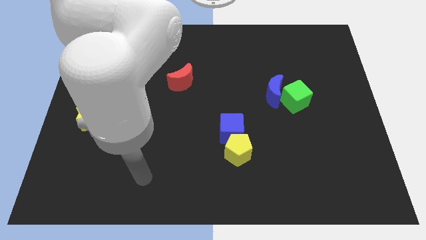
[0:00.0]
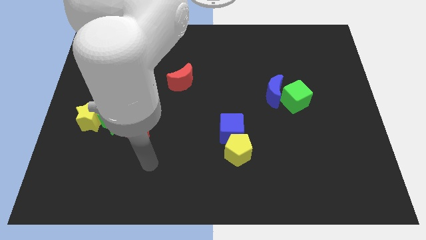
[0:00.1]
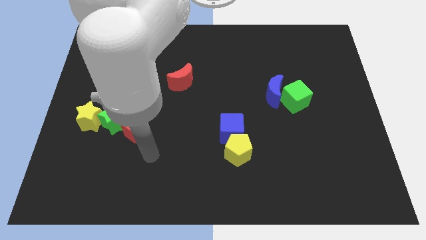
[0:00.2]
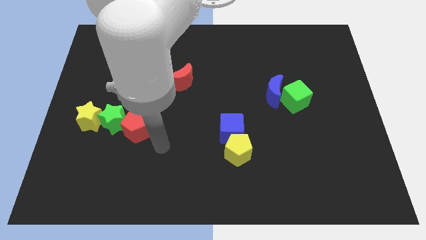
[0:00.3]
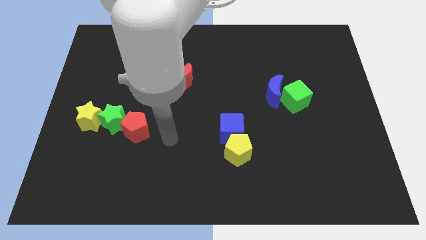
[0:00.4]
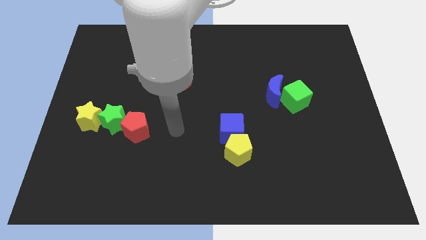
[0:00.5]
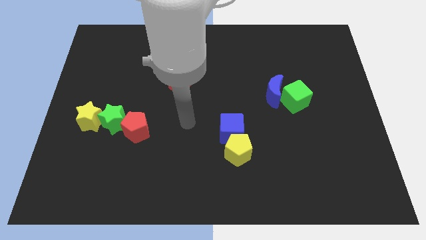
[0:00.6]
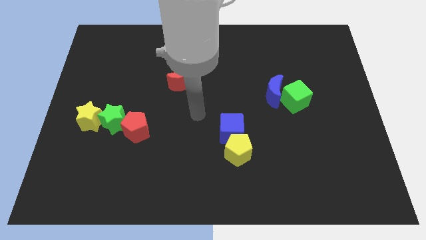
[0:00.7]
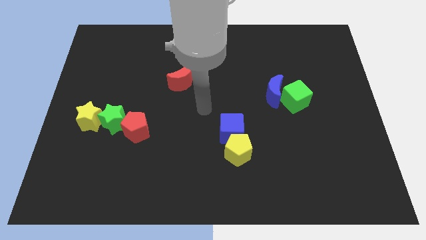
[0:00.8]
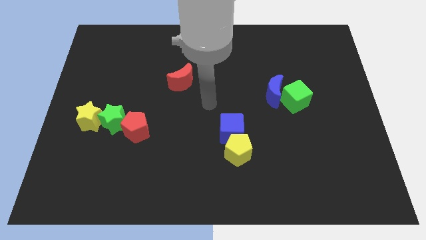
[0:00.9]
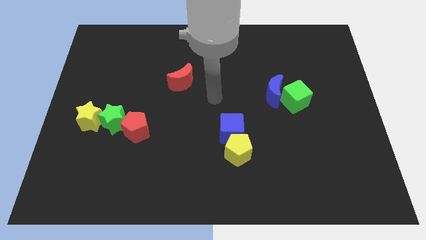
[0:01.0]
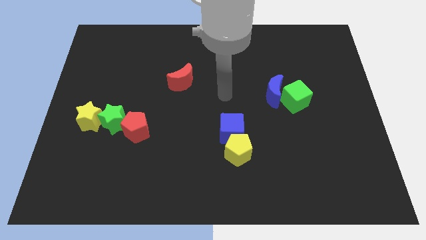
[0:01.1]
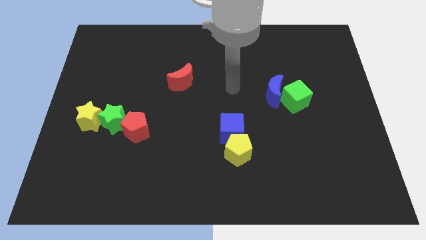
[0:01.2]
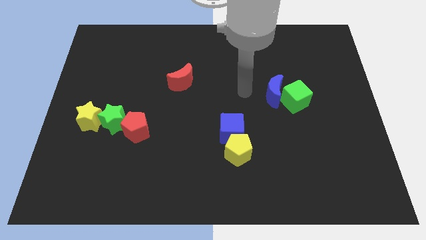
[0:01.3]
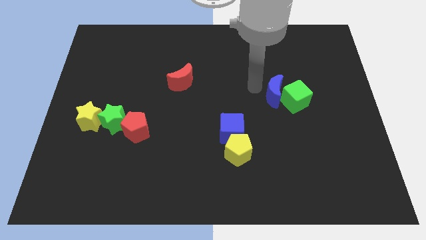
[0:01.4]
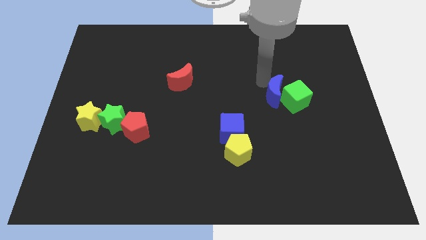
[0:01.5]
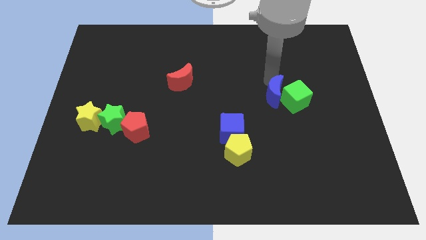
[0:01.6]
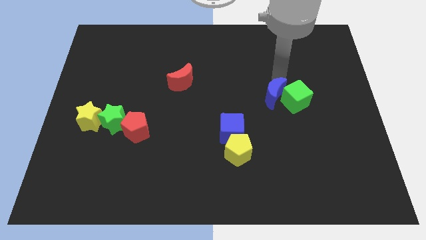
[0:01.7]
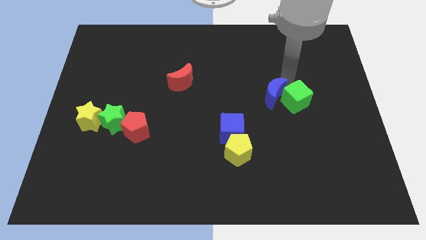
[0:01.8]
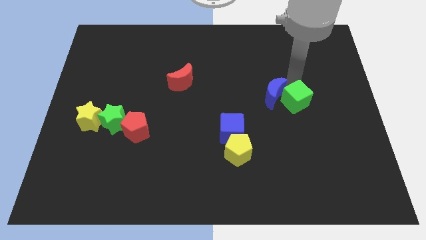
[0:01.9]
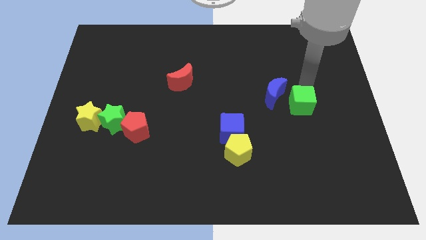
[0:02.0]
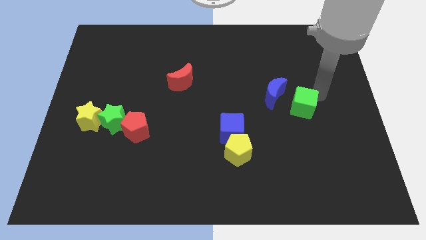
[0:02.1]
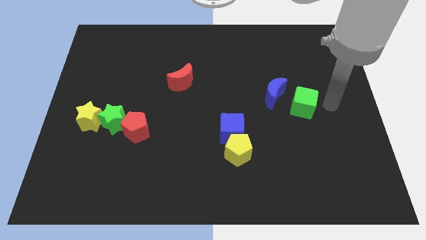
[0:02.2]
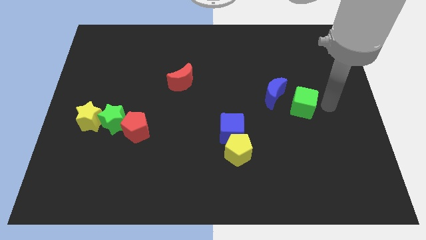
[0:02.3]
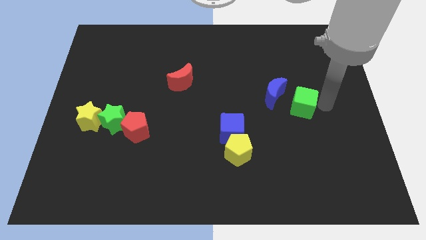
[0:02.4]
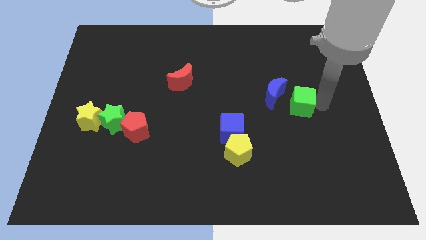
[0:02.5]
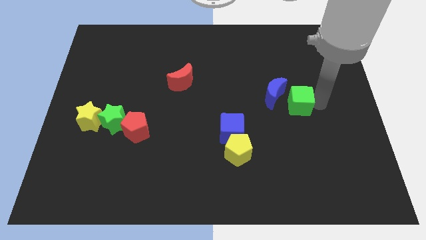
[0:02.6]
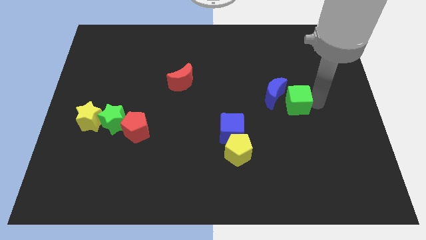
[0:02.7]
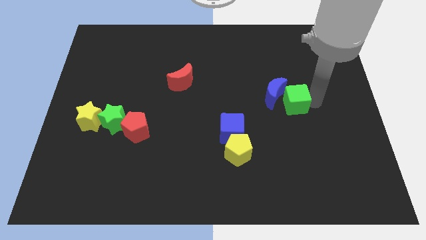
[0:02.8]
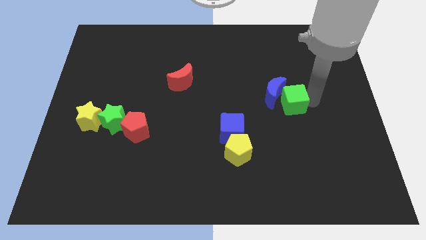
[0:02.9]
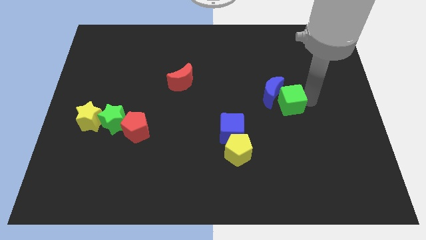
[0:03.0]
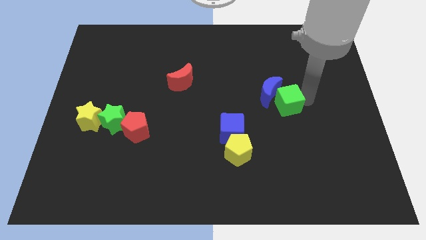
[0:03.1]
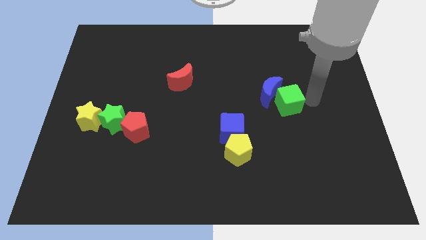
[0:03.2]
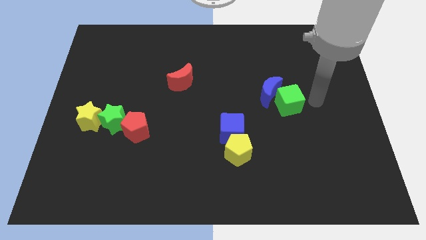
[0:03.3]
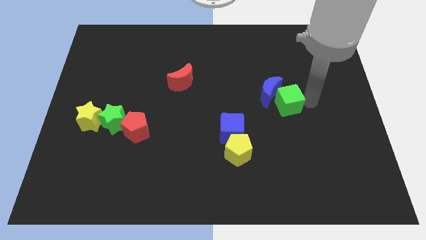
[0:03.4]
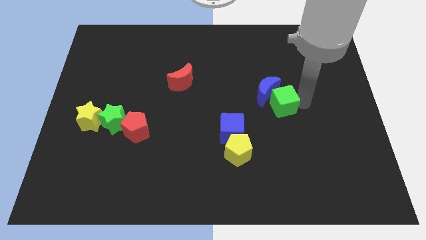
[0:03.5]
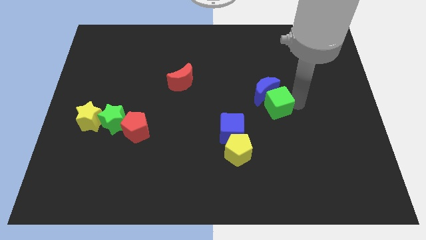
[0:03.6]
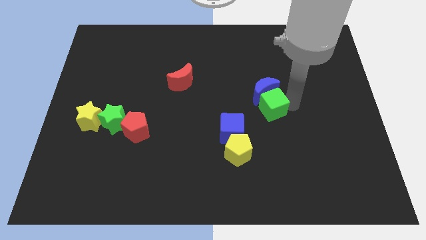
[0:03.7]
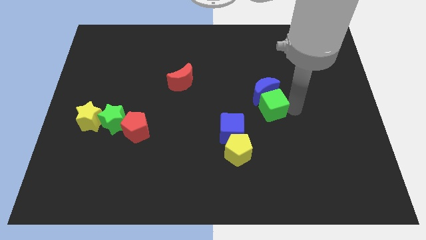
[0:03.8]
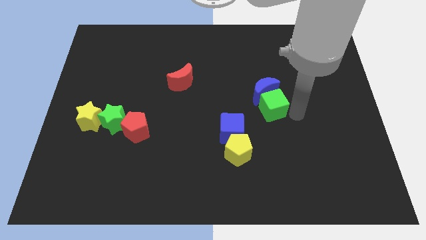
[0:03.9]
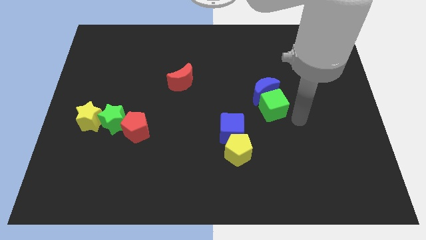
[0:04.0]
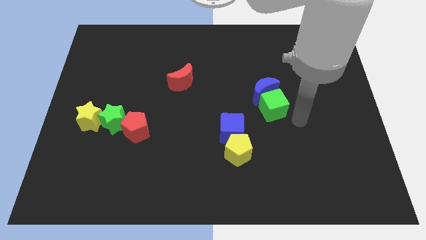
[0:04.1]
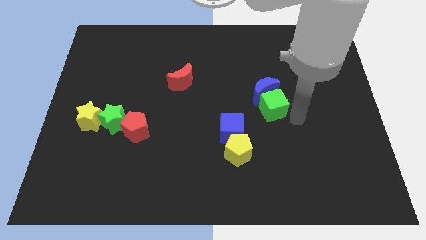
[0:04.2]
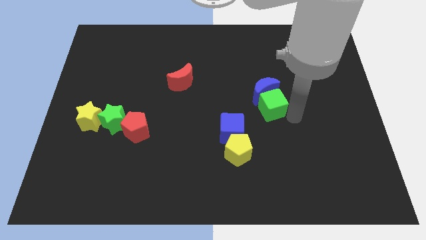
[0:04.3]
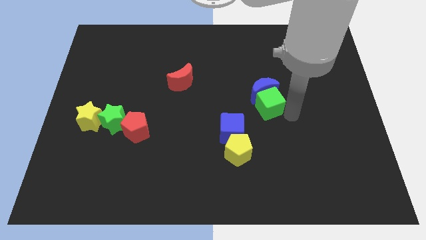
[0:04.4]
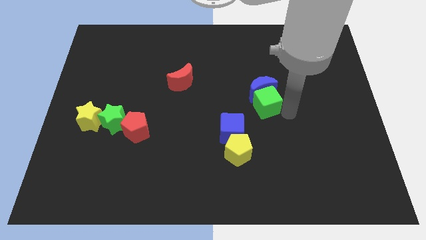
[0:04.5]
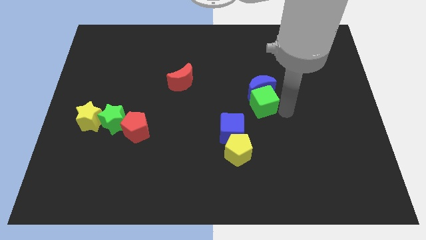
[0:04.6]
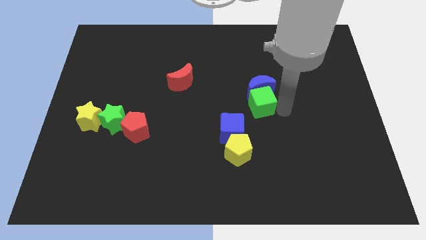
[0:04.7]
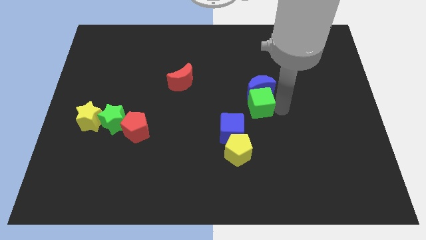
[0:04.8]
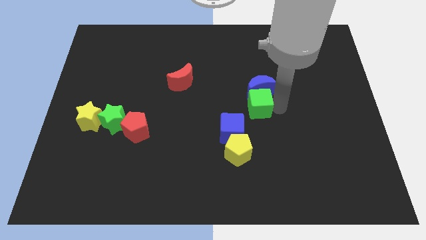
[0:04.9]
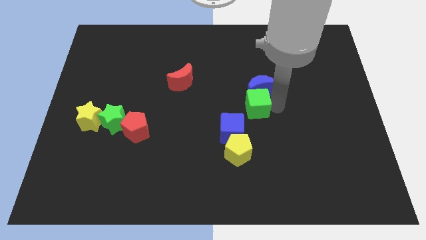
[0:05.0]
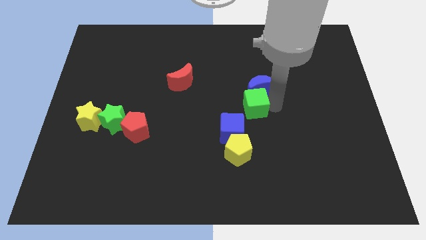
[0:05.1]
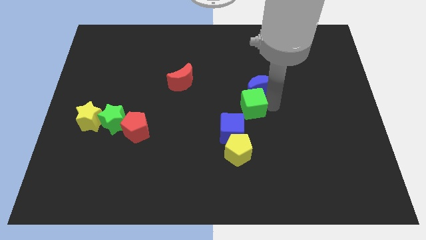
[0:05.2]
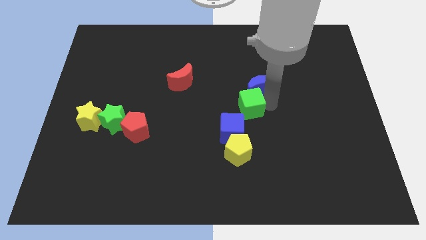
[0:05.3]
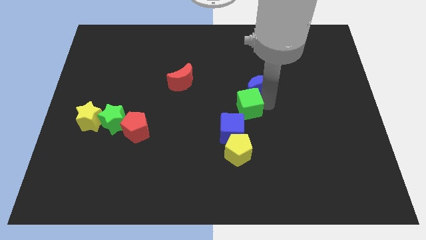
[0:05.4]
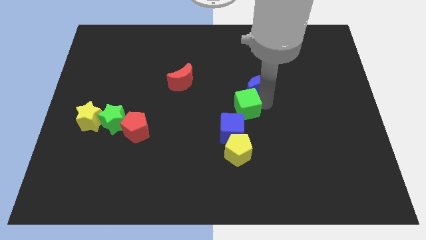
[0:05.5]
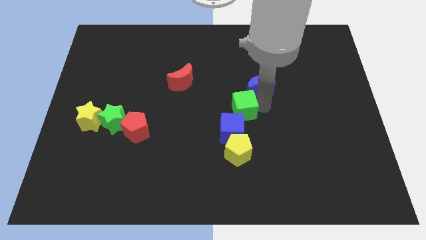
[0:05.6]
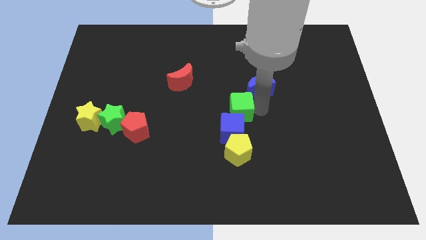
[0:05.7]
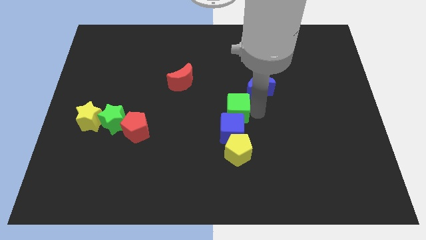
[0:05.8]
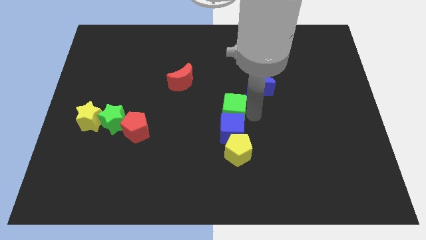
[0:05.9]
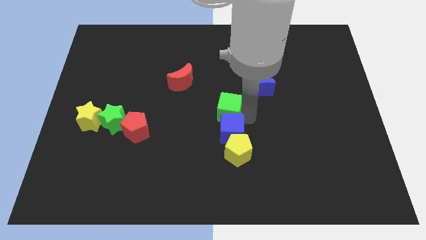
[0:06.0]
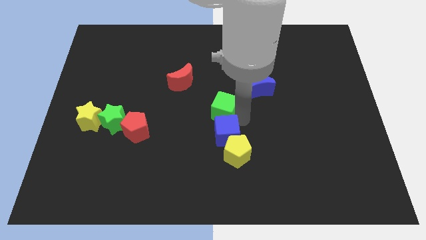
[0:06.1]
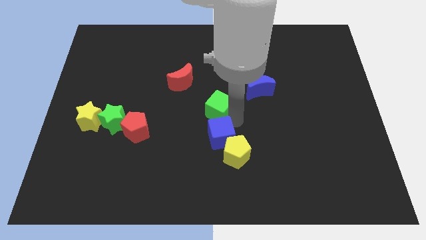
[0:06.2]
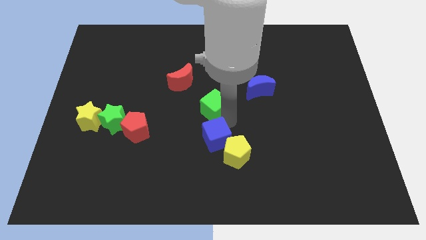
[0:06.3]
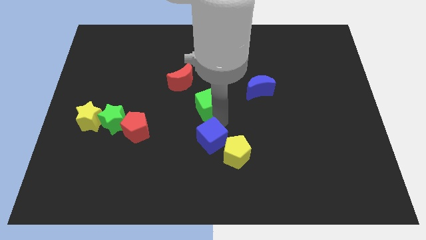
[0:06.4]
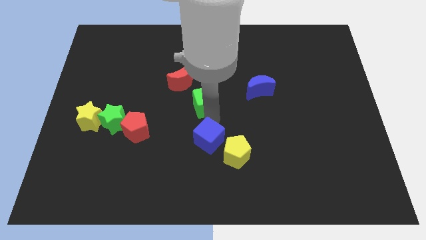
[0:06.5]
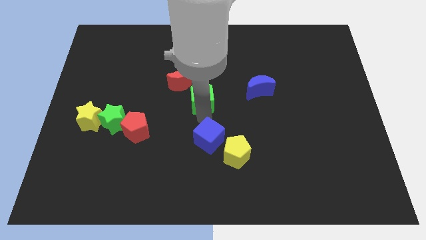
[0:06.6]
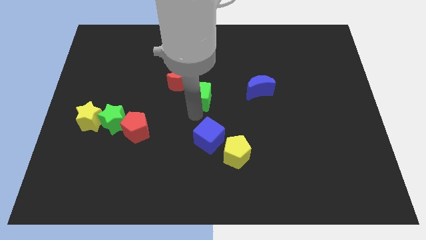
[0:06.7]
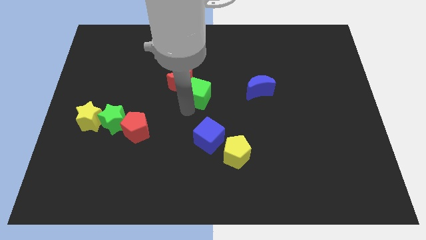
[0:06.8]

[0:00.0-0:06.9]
put the green cube towards the red moon
